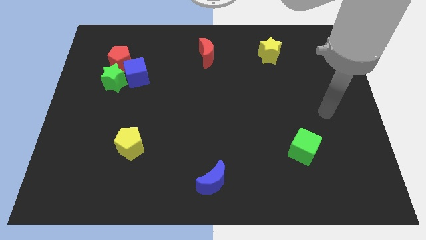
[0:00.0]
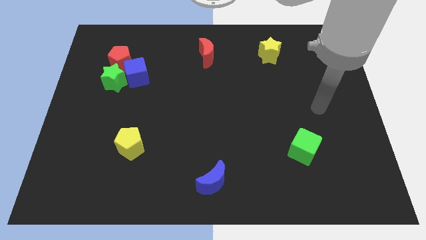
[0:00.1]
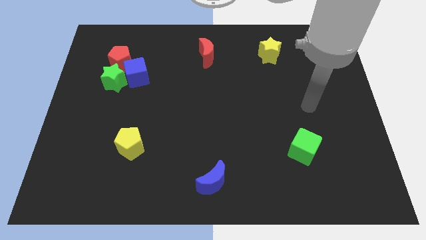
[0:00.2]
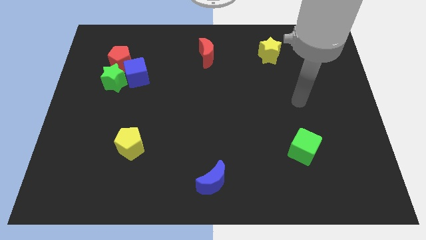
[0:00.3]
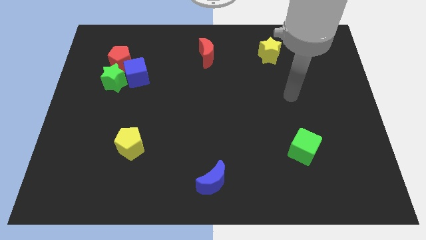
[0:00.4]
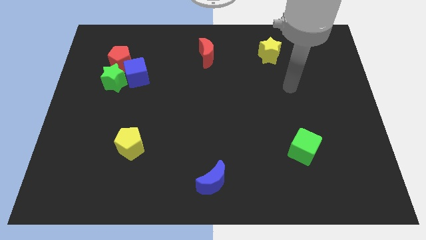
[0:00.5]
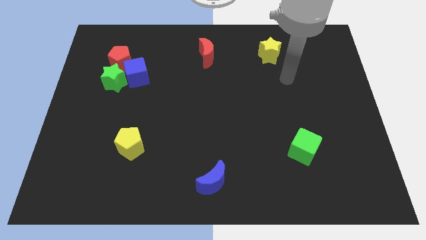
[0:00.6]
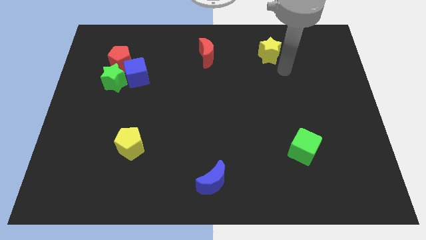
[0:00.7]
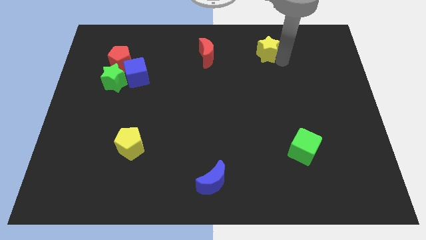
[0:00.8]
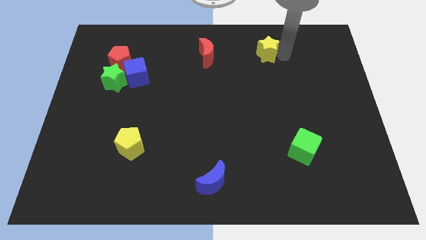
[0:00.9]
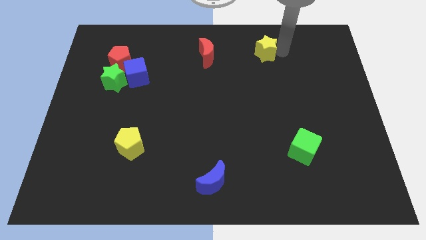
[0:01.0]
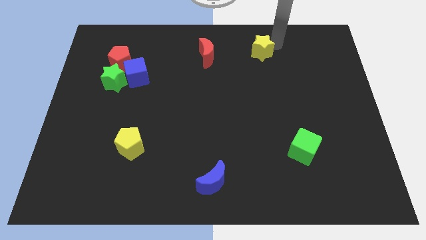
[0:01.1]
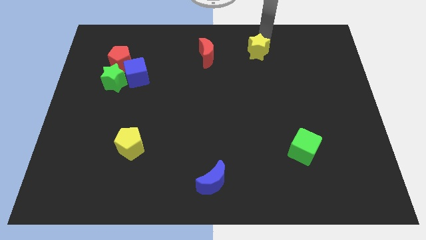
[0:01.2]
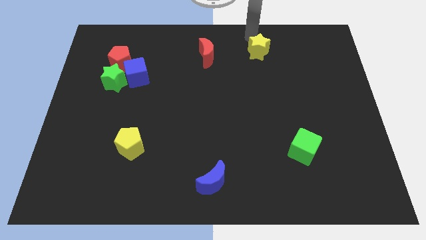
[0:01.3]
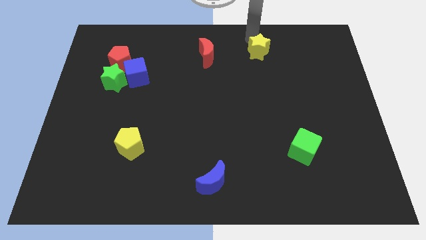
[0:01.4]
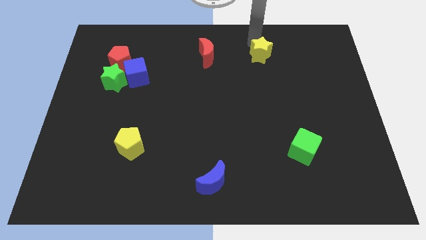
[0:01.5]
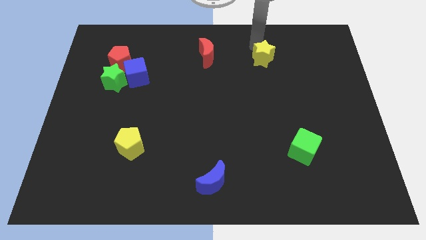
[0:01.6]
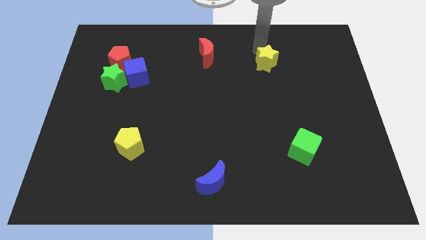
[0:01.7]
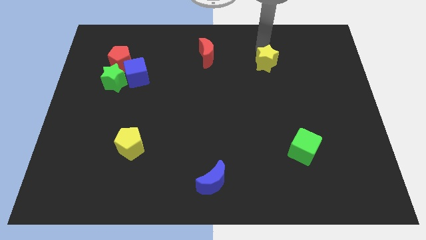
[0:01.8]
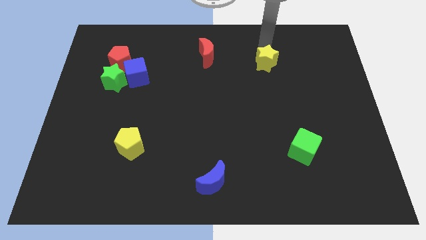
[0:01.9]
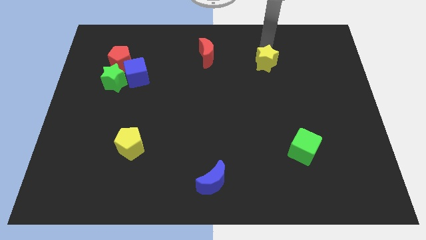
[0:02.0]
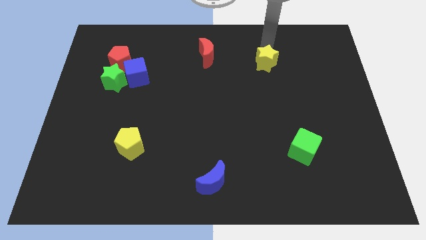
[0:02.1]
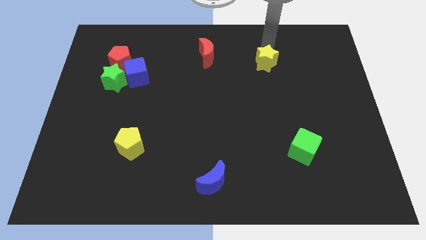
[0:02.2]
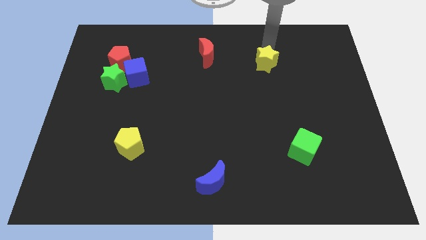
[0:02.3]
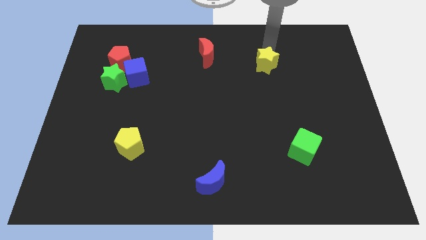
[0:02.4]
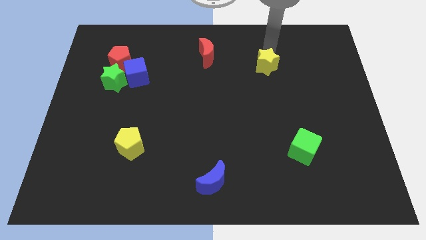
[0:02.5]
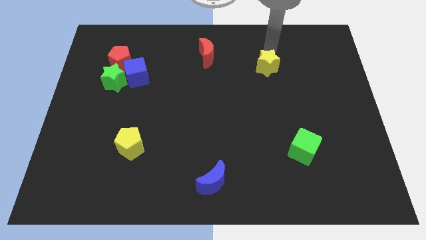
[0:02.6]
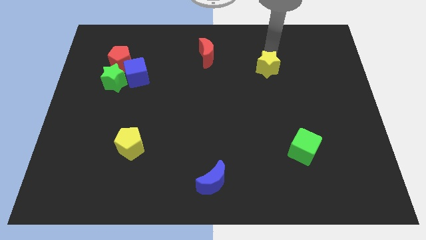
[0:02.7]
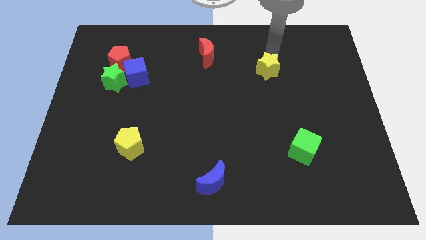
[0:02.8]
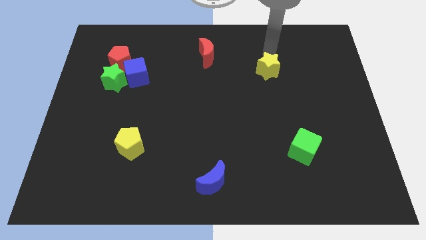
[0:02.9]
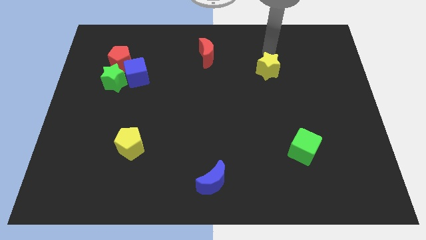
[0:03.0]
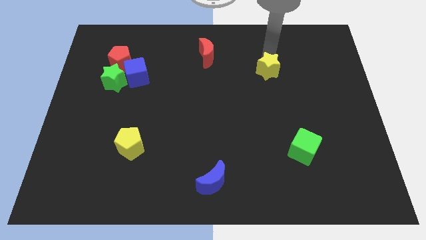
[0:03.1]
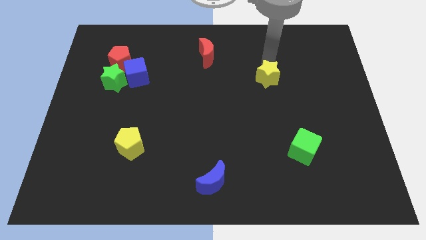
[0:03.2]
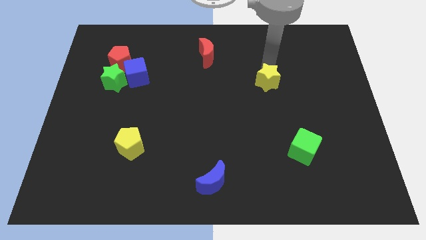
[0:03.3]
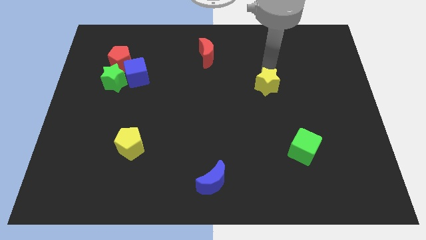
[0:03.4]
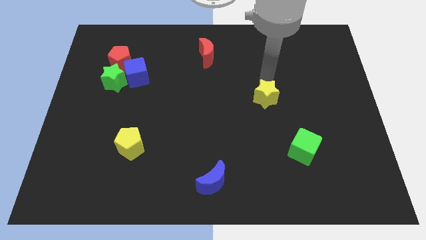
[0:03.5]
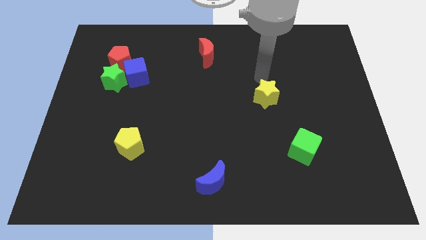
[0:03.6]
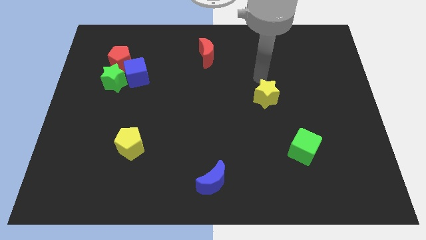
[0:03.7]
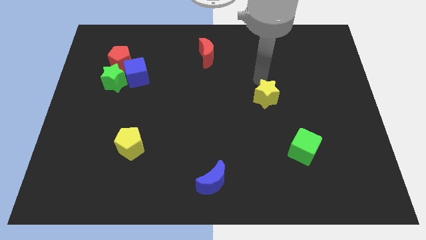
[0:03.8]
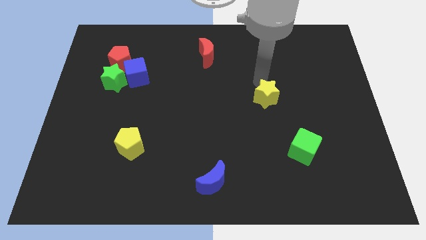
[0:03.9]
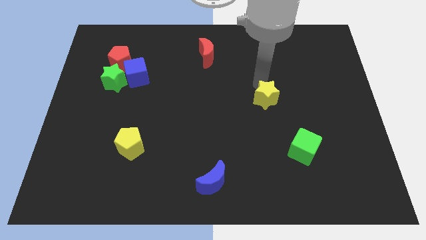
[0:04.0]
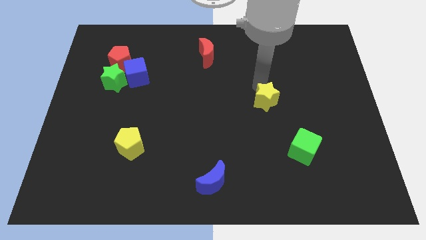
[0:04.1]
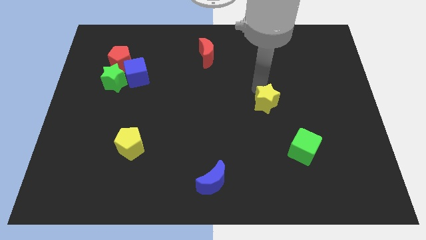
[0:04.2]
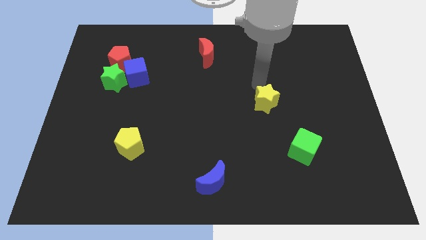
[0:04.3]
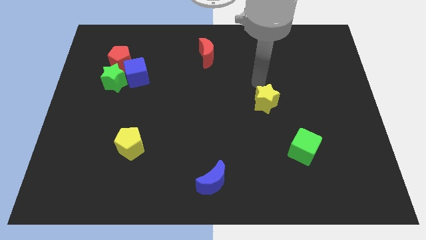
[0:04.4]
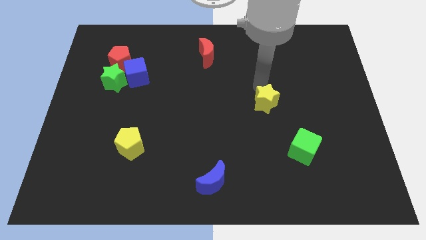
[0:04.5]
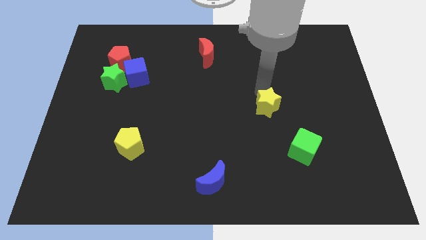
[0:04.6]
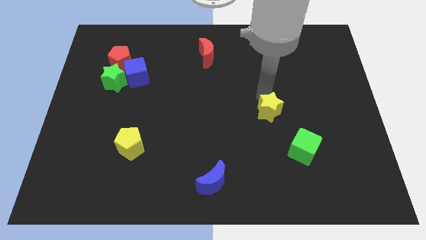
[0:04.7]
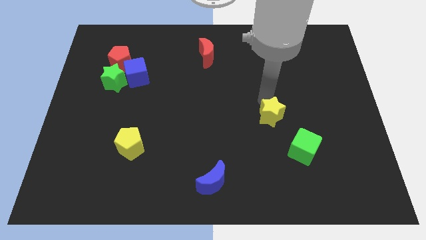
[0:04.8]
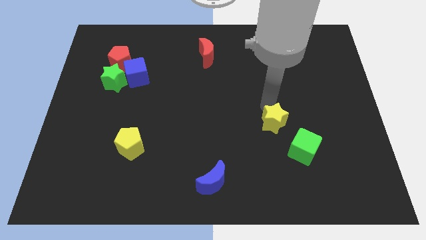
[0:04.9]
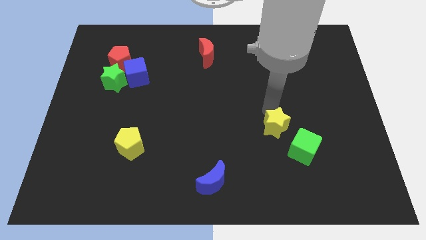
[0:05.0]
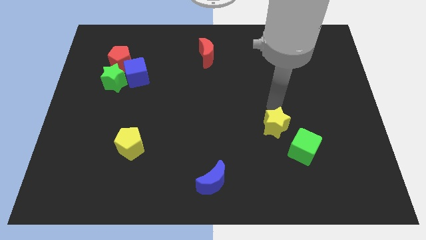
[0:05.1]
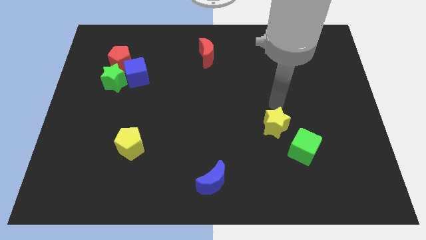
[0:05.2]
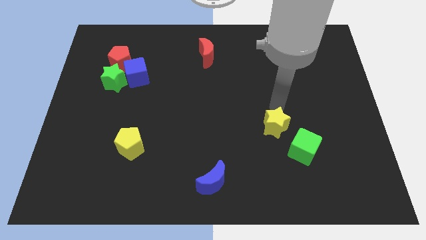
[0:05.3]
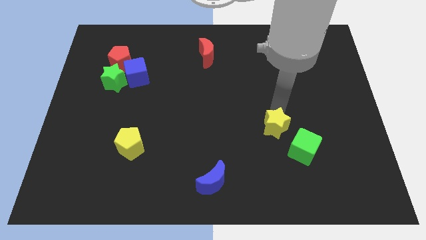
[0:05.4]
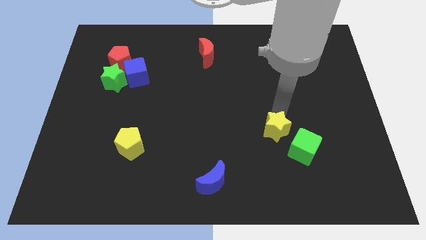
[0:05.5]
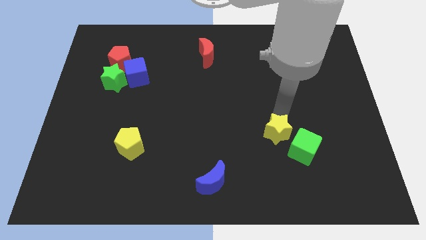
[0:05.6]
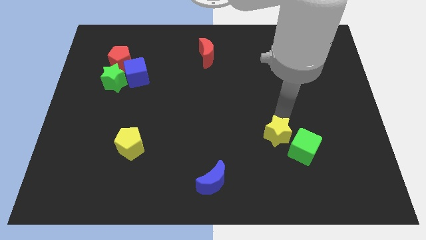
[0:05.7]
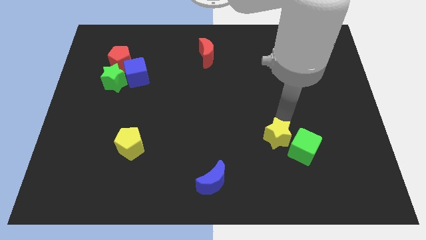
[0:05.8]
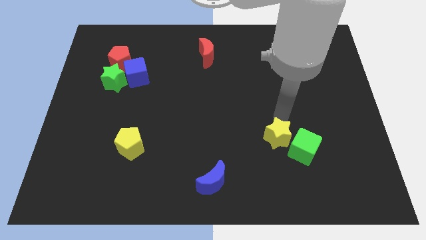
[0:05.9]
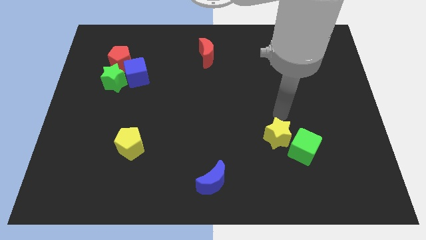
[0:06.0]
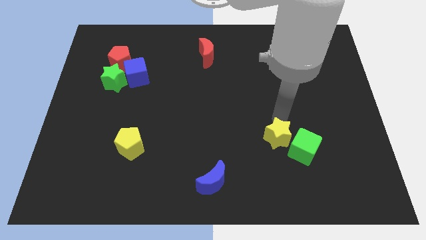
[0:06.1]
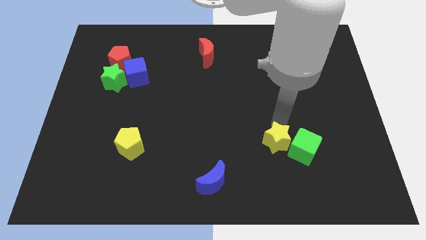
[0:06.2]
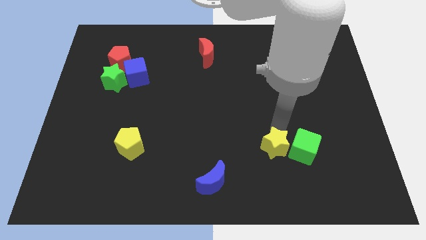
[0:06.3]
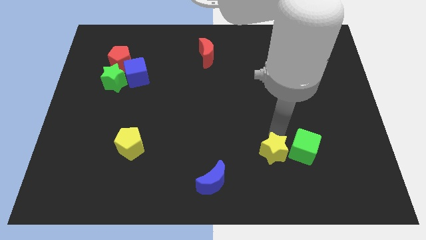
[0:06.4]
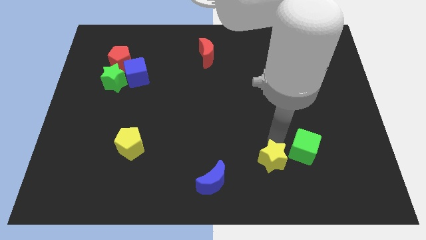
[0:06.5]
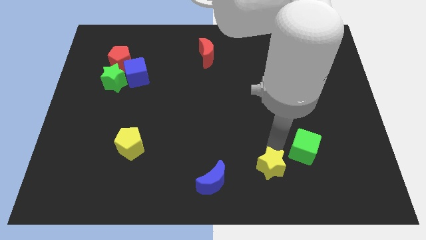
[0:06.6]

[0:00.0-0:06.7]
push the yellow star right of the blue moon
